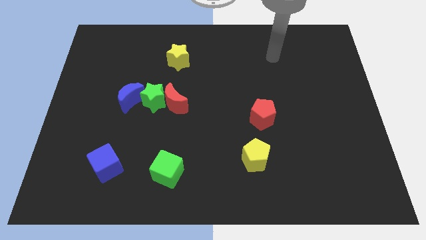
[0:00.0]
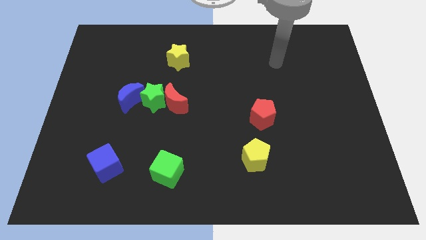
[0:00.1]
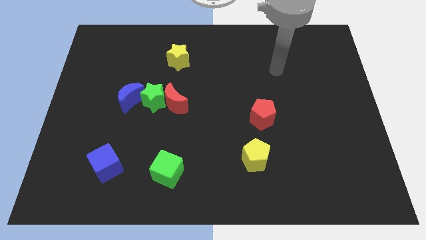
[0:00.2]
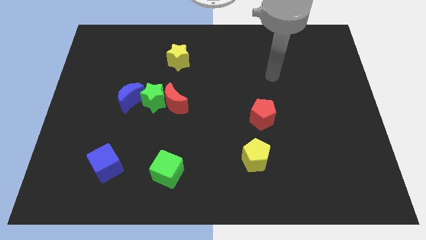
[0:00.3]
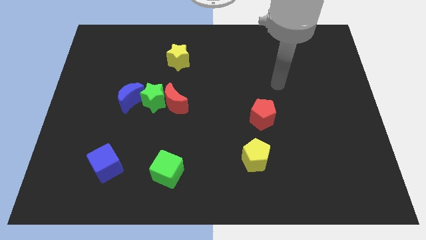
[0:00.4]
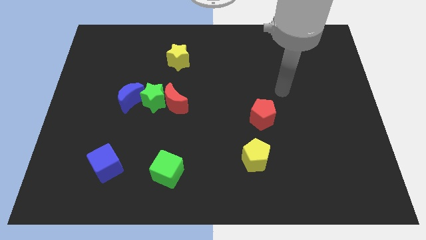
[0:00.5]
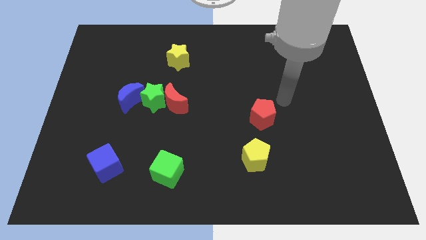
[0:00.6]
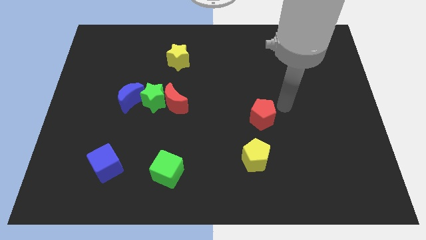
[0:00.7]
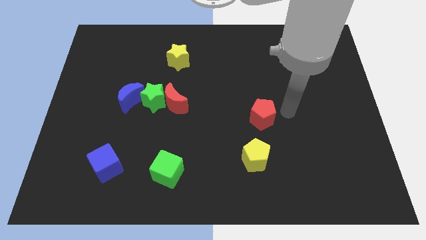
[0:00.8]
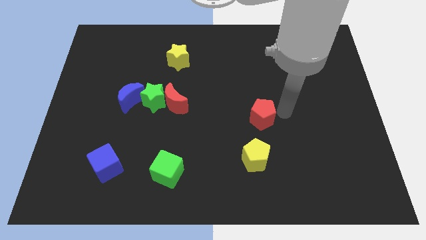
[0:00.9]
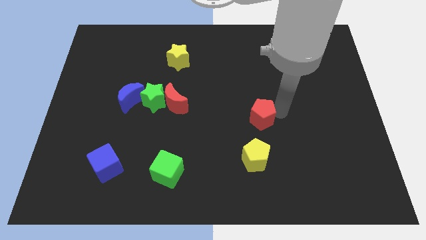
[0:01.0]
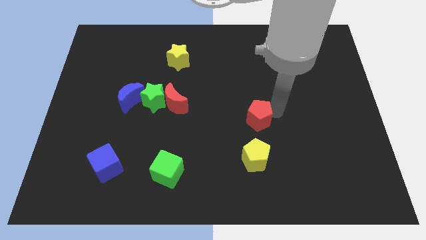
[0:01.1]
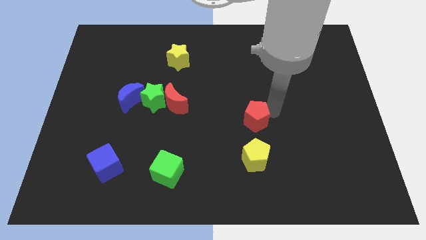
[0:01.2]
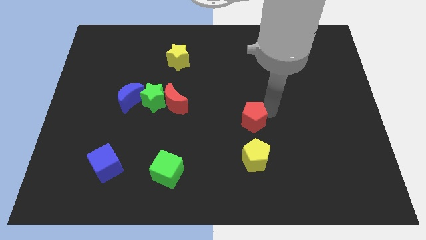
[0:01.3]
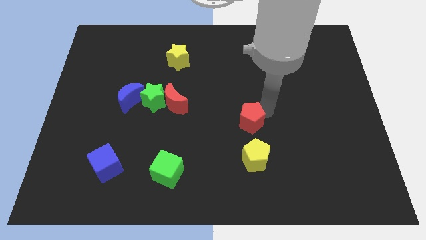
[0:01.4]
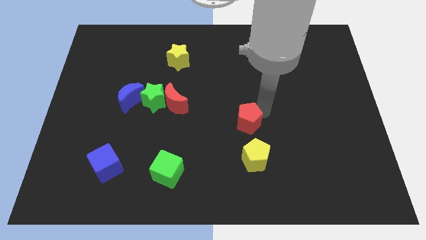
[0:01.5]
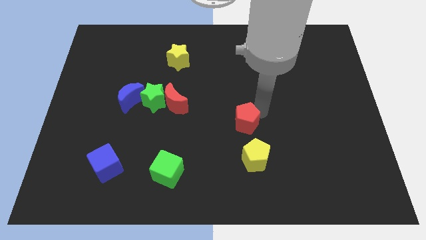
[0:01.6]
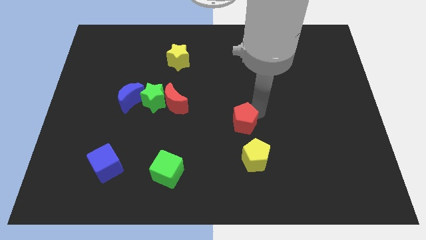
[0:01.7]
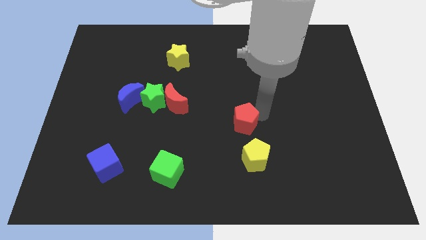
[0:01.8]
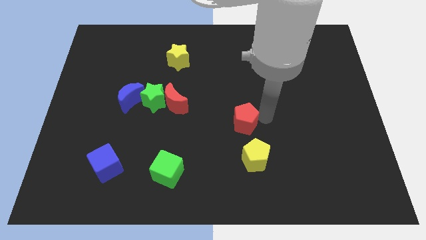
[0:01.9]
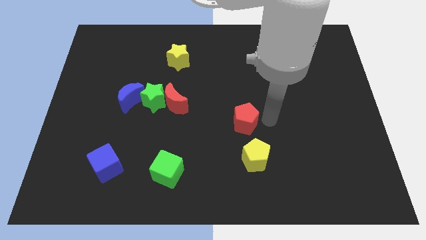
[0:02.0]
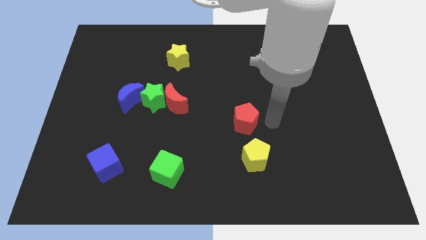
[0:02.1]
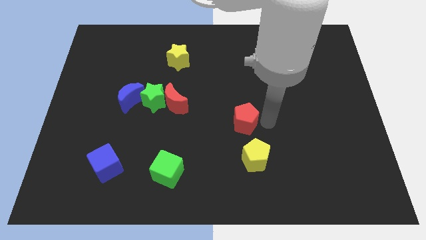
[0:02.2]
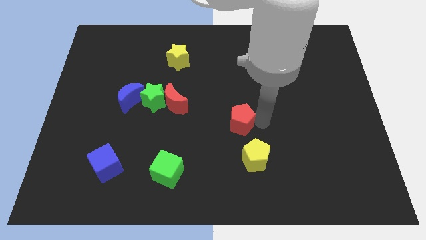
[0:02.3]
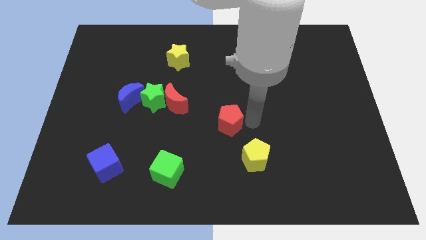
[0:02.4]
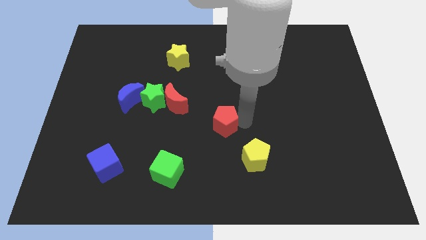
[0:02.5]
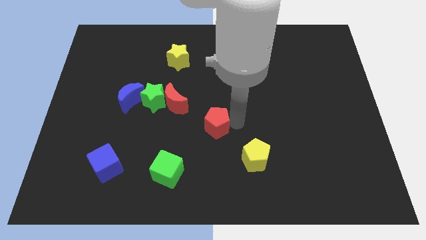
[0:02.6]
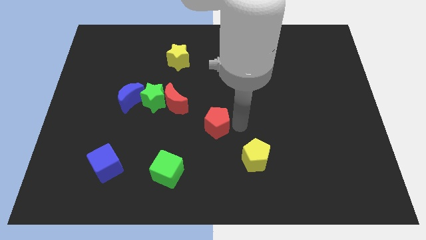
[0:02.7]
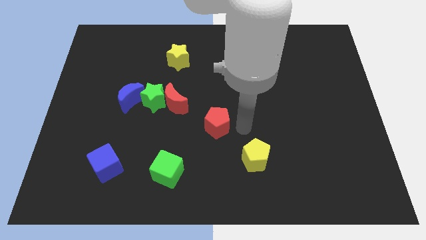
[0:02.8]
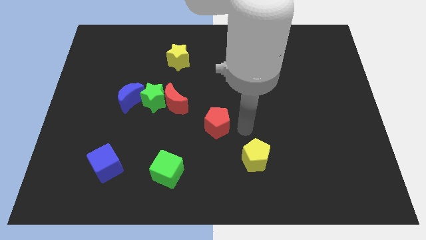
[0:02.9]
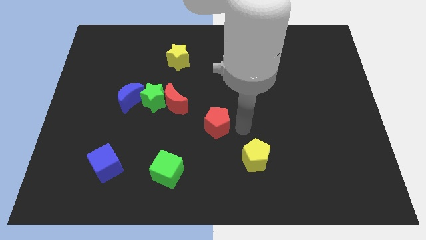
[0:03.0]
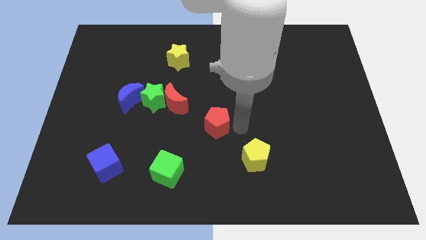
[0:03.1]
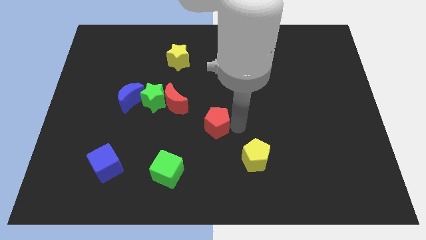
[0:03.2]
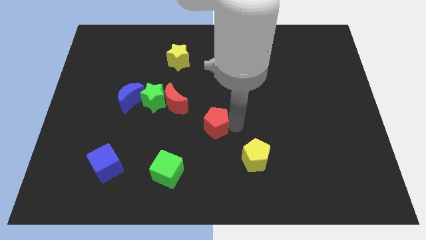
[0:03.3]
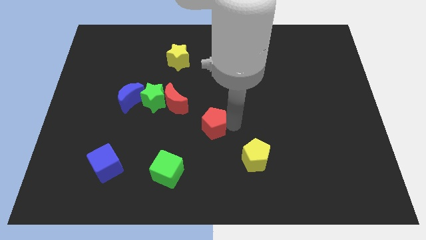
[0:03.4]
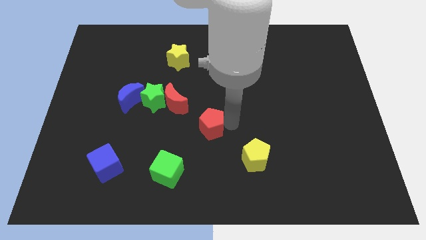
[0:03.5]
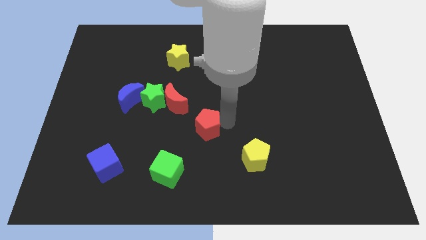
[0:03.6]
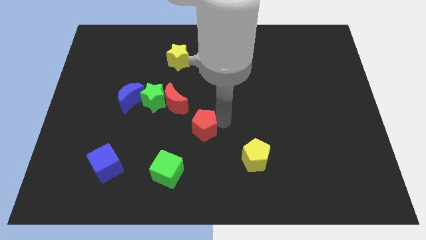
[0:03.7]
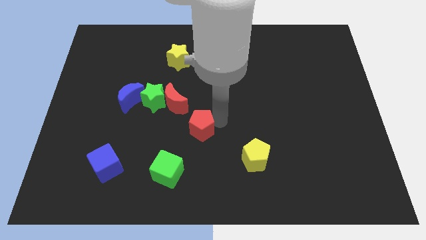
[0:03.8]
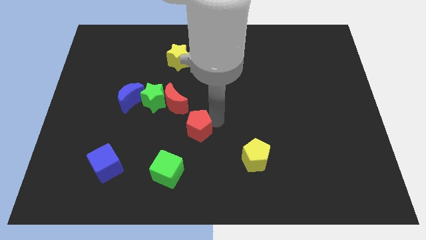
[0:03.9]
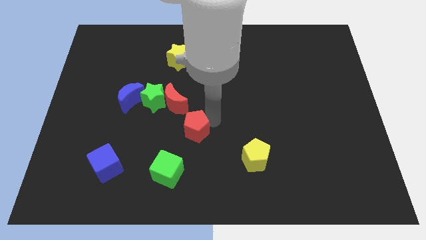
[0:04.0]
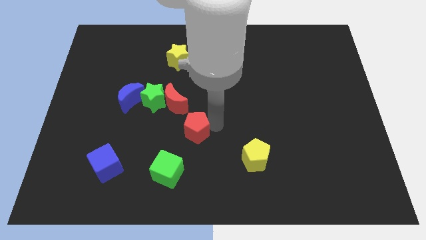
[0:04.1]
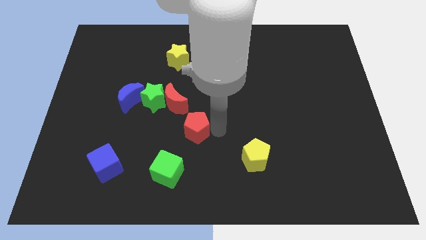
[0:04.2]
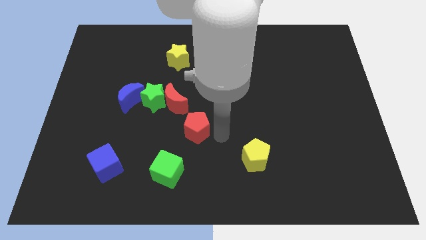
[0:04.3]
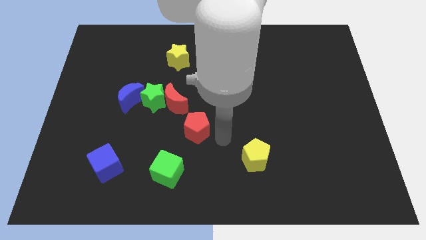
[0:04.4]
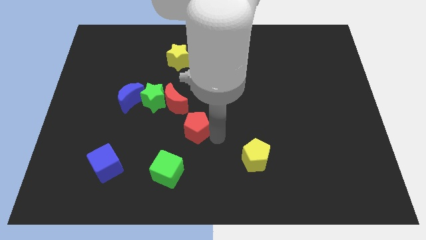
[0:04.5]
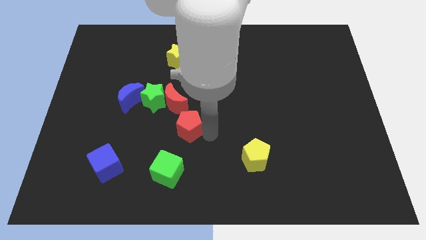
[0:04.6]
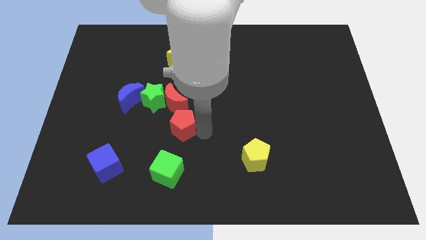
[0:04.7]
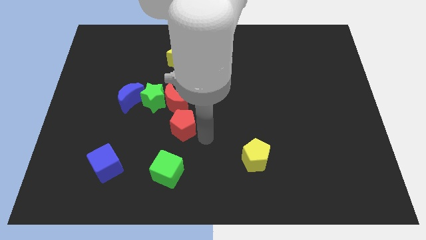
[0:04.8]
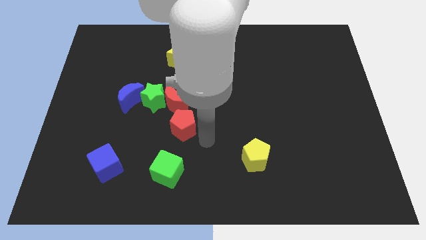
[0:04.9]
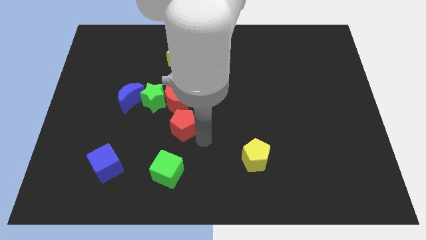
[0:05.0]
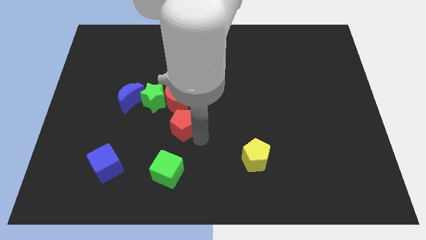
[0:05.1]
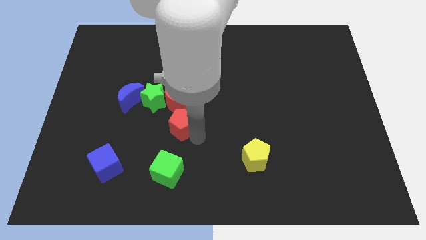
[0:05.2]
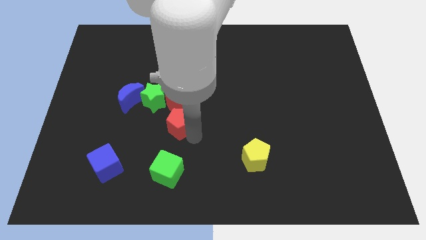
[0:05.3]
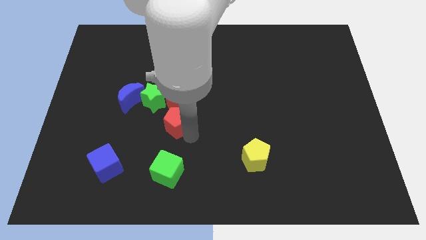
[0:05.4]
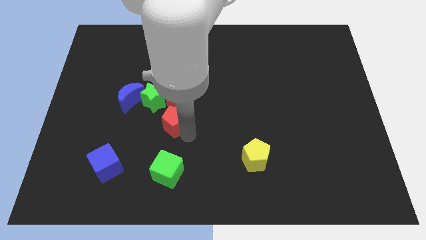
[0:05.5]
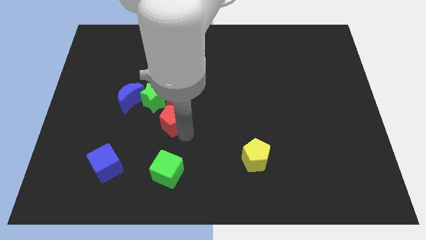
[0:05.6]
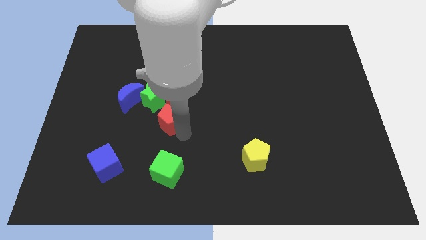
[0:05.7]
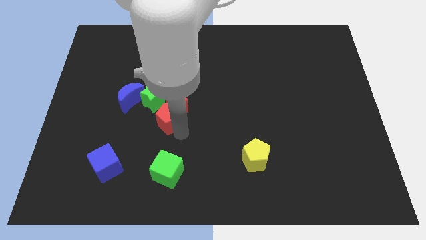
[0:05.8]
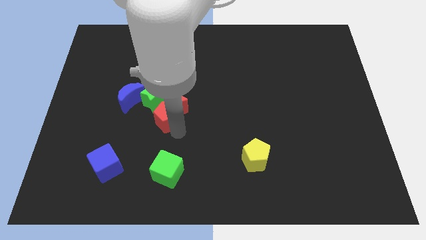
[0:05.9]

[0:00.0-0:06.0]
push the red pentagon close to the green star

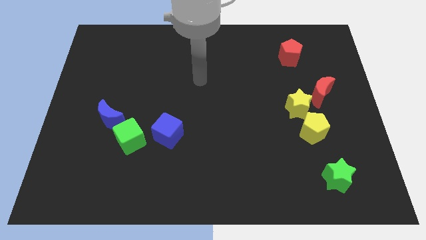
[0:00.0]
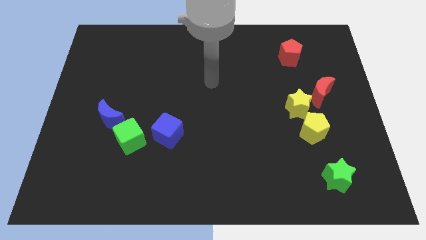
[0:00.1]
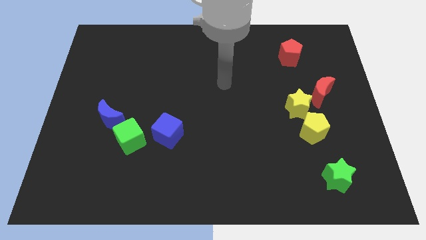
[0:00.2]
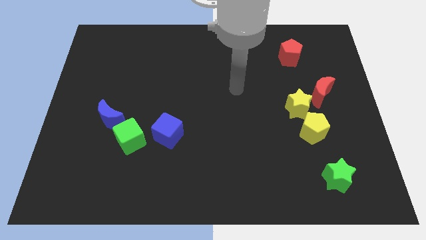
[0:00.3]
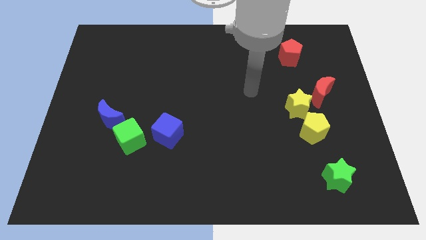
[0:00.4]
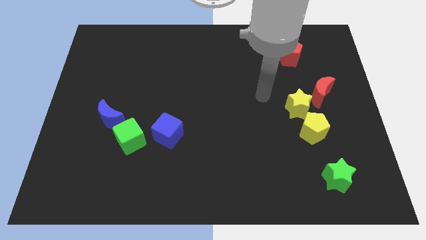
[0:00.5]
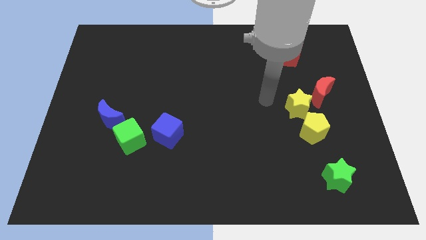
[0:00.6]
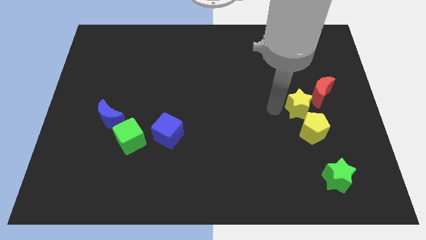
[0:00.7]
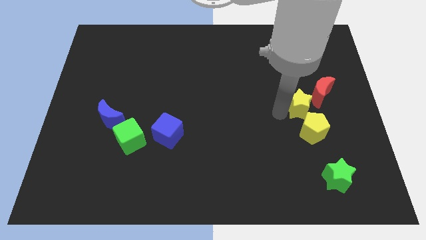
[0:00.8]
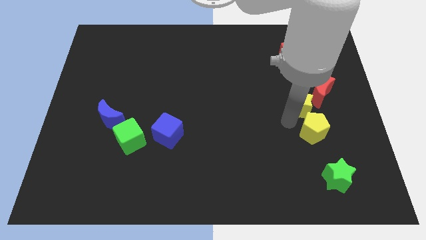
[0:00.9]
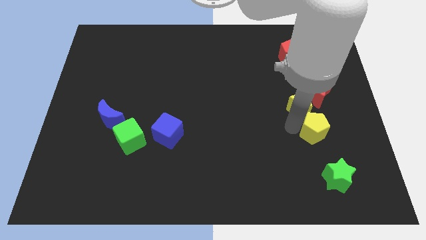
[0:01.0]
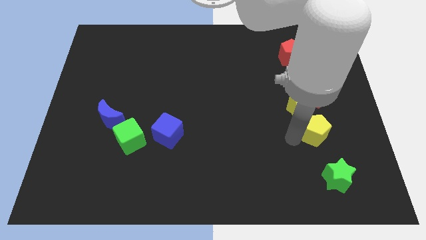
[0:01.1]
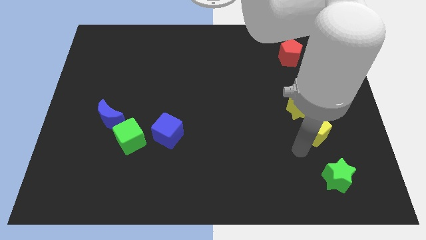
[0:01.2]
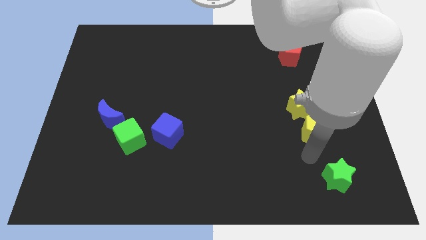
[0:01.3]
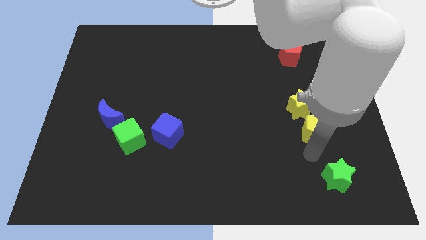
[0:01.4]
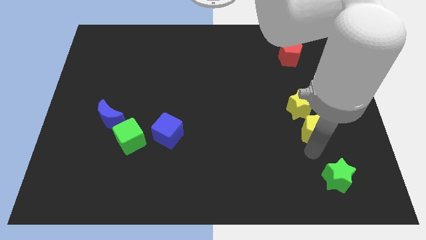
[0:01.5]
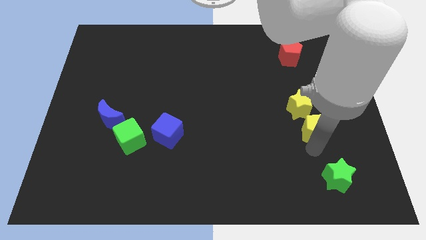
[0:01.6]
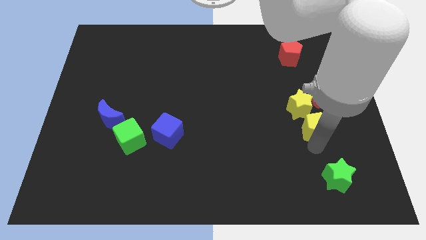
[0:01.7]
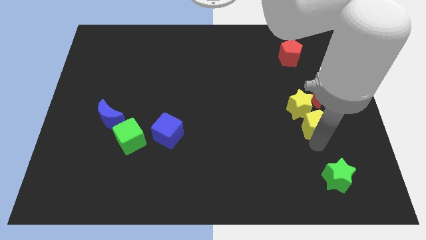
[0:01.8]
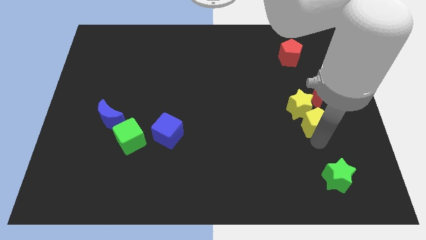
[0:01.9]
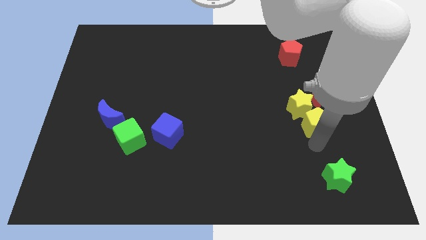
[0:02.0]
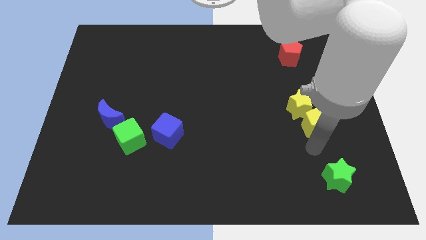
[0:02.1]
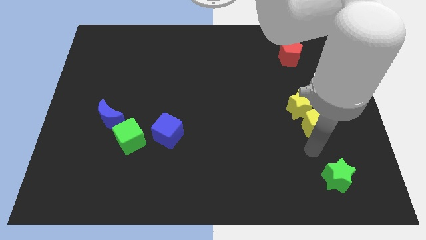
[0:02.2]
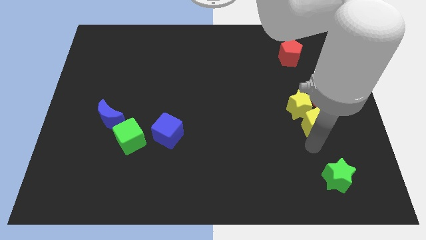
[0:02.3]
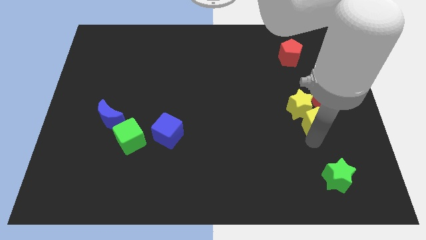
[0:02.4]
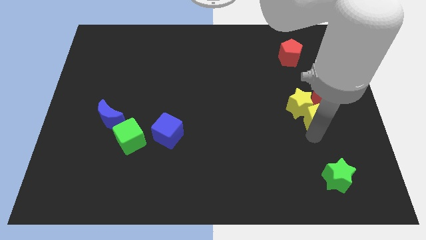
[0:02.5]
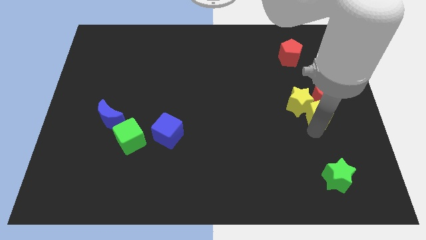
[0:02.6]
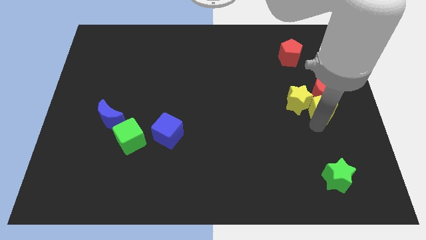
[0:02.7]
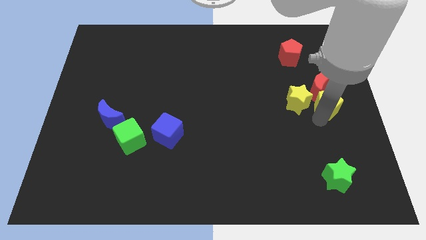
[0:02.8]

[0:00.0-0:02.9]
move the yellow pentagon close to the red moon
